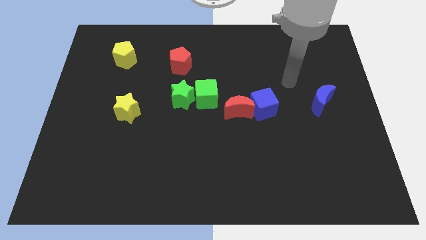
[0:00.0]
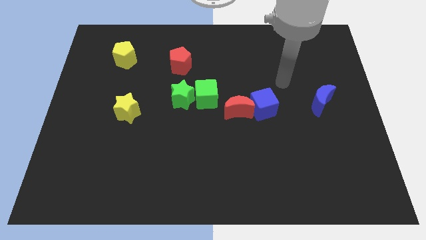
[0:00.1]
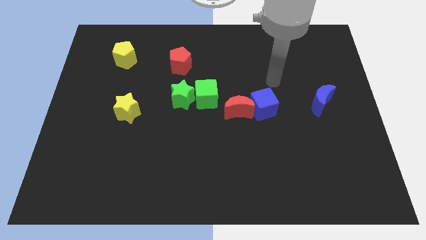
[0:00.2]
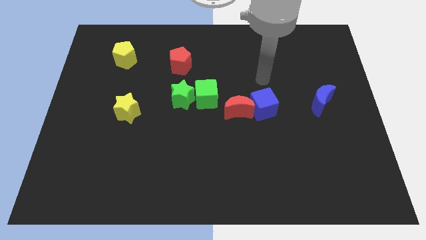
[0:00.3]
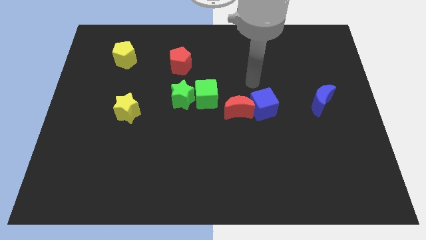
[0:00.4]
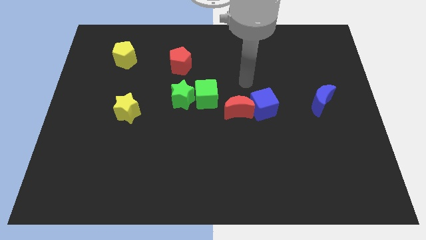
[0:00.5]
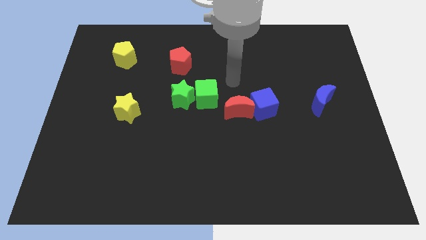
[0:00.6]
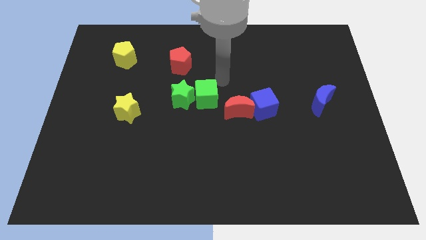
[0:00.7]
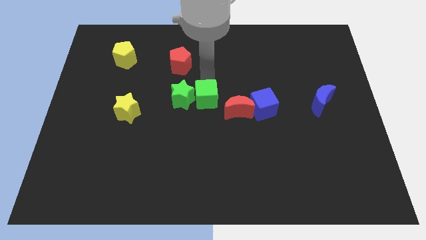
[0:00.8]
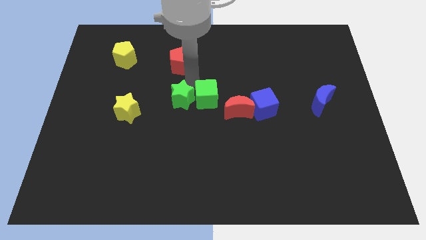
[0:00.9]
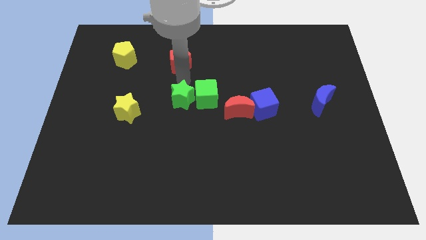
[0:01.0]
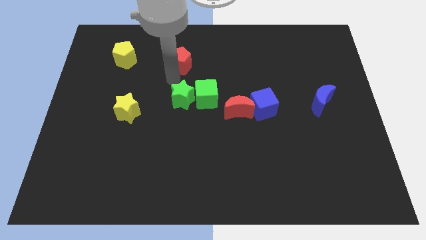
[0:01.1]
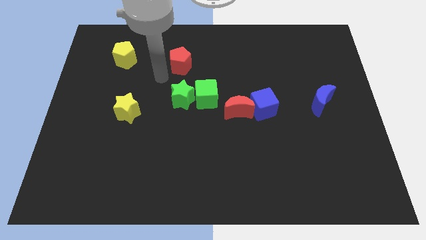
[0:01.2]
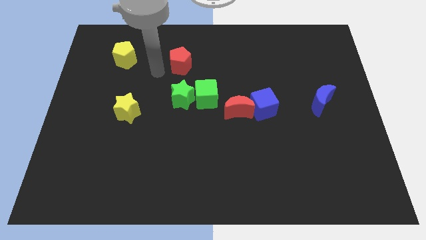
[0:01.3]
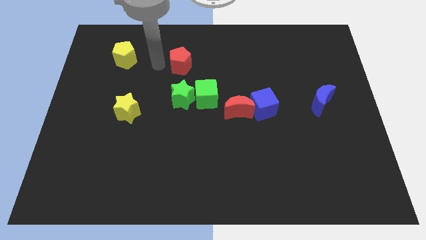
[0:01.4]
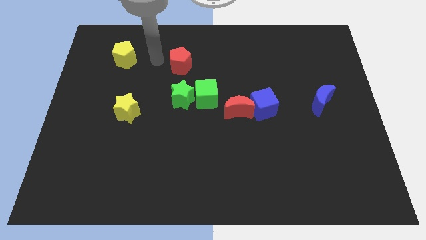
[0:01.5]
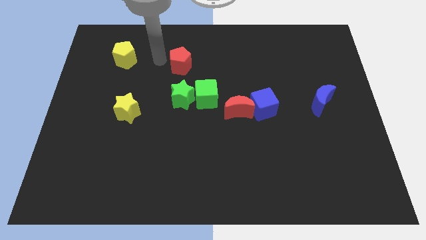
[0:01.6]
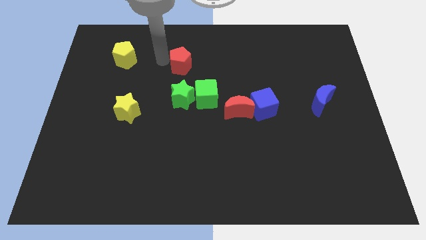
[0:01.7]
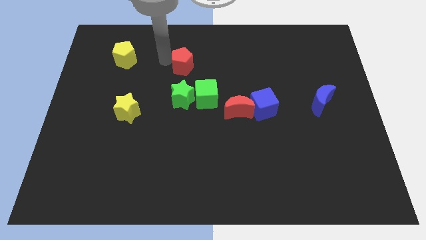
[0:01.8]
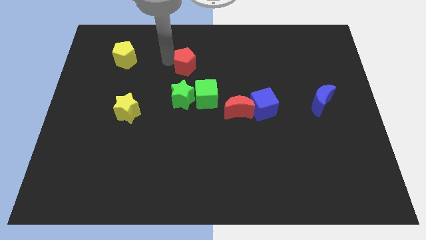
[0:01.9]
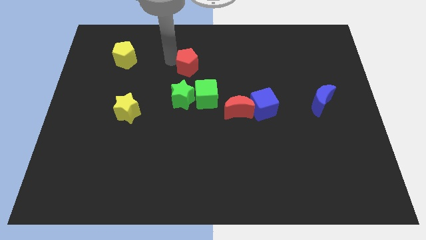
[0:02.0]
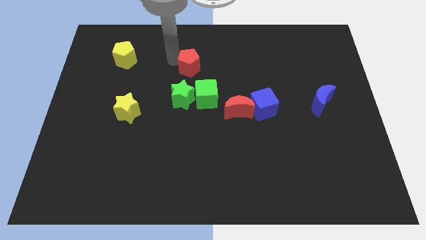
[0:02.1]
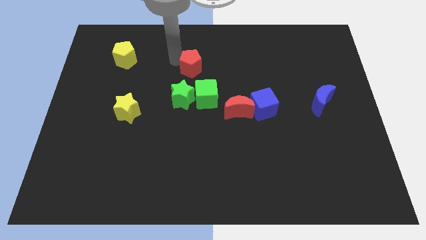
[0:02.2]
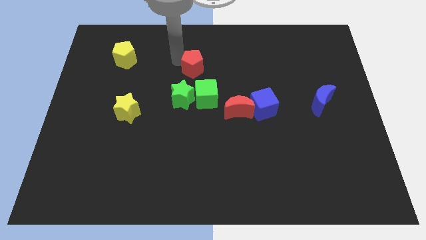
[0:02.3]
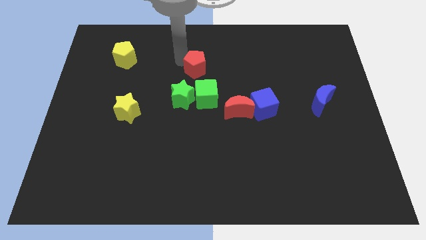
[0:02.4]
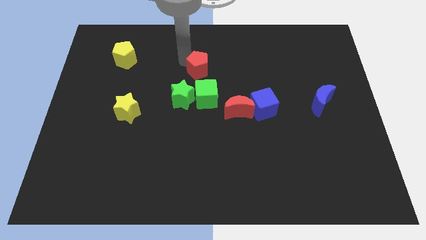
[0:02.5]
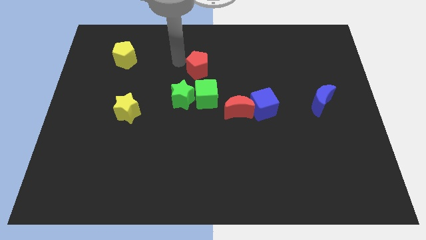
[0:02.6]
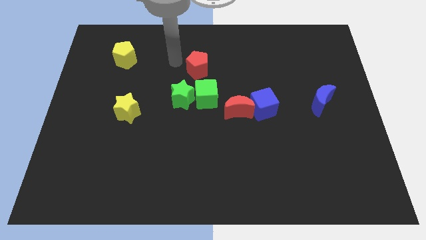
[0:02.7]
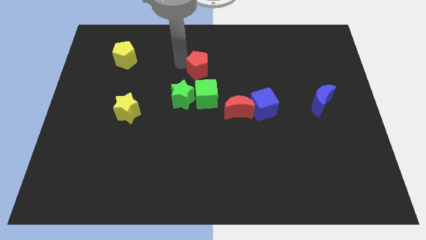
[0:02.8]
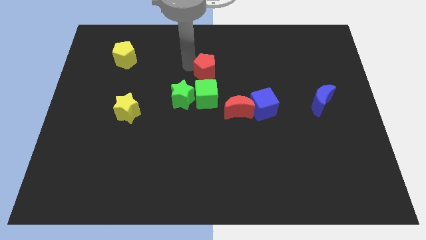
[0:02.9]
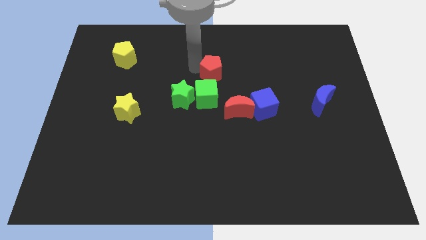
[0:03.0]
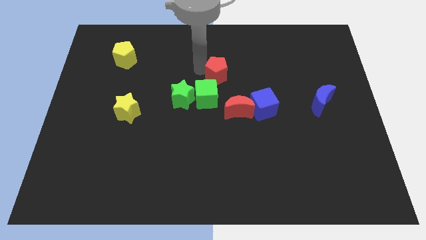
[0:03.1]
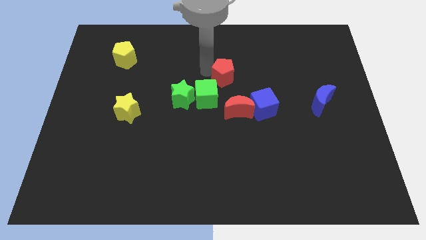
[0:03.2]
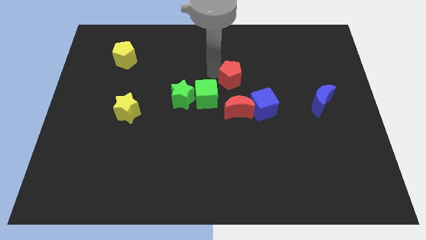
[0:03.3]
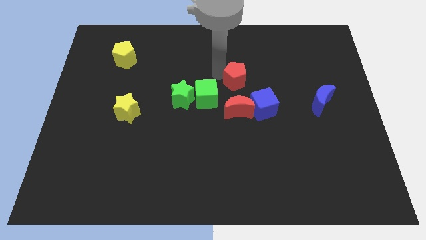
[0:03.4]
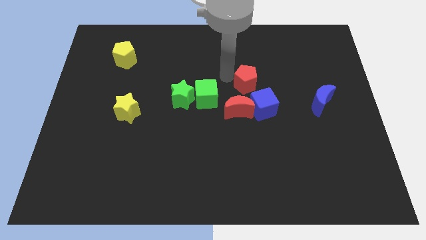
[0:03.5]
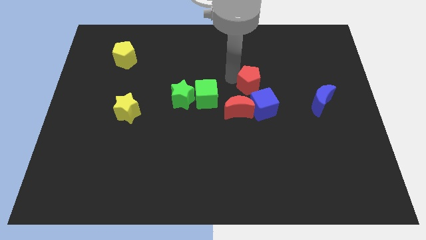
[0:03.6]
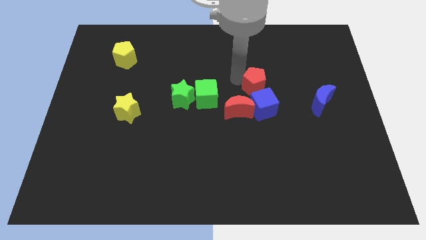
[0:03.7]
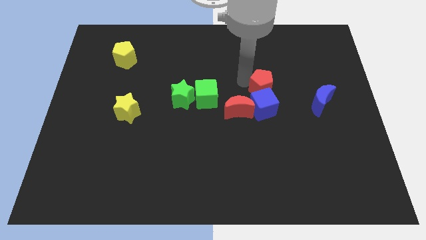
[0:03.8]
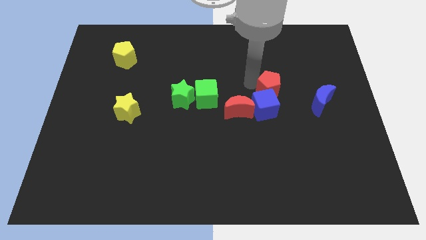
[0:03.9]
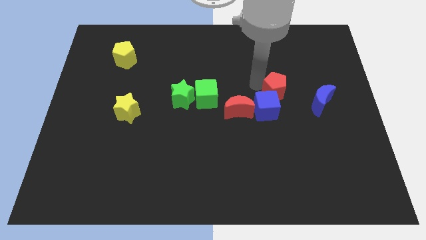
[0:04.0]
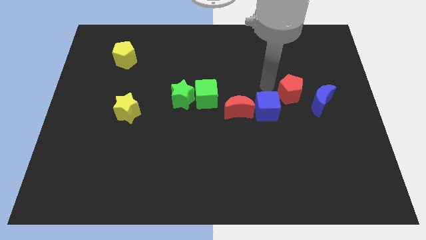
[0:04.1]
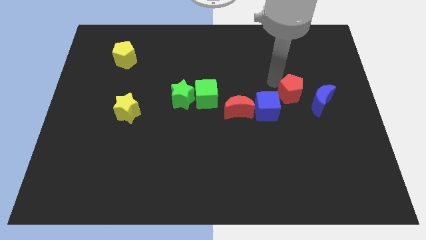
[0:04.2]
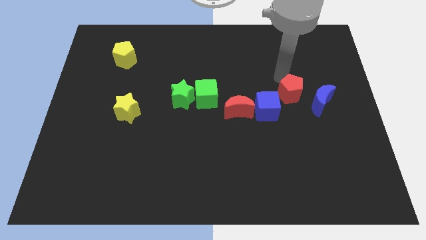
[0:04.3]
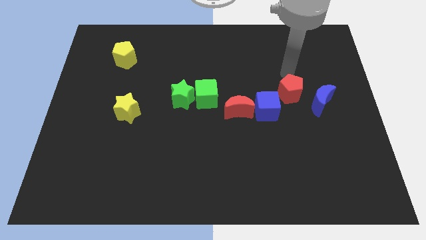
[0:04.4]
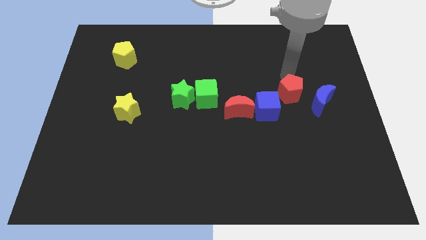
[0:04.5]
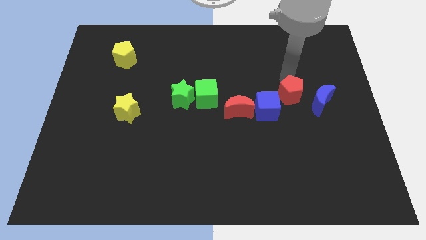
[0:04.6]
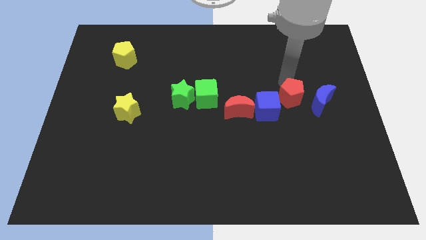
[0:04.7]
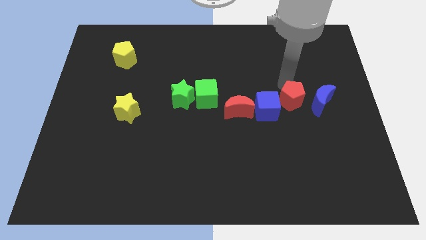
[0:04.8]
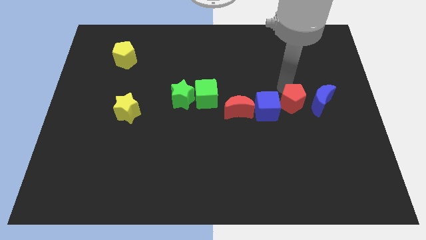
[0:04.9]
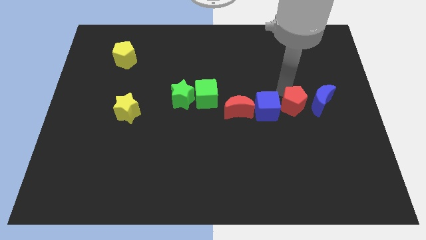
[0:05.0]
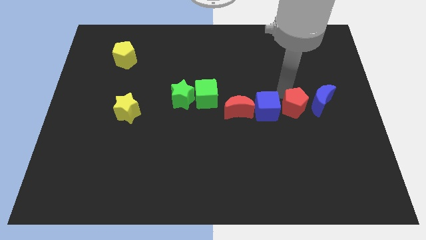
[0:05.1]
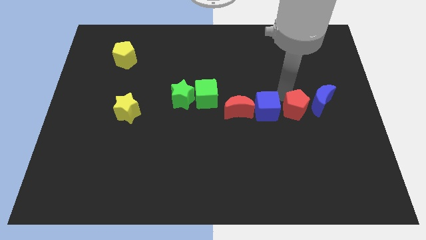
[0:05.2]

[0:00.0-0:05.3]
slide the red pentagon to the bottom right of the blue cube

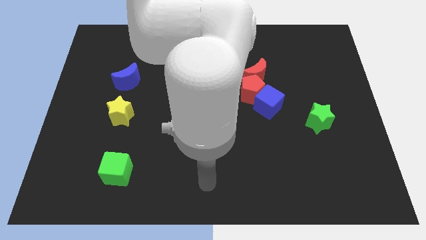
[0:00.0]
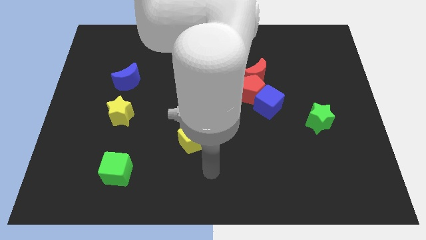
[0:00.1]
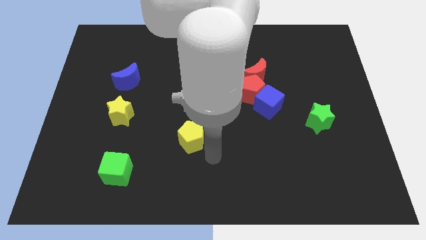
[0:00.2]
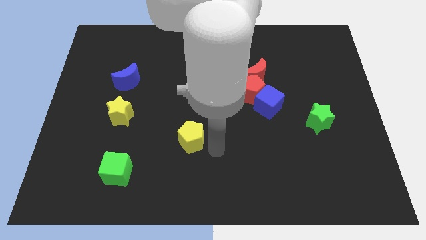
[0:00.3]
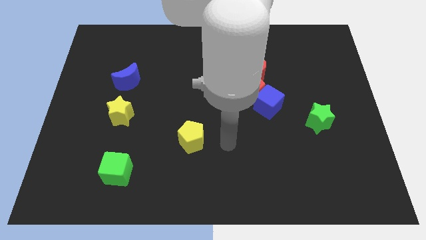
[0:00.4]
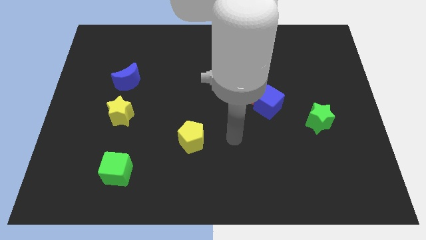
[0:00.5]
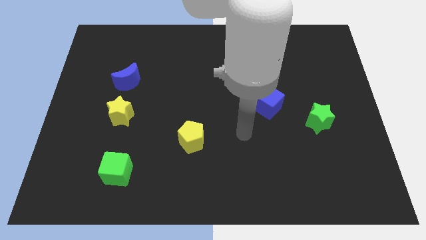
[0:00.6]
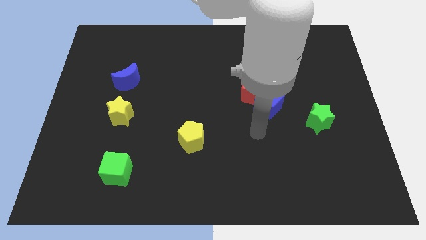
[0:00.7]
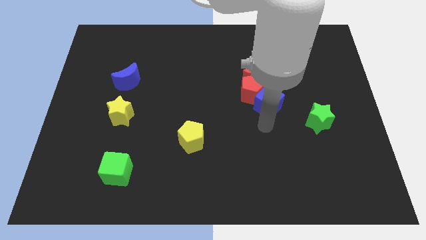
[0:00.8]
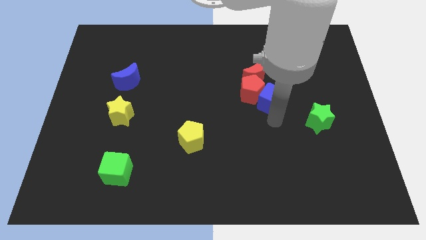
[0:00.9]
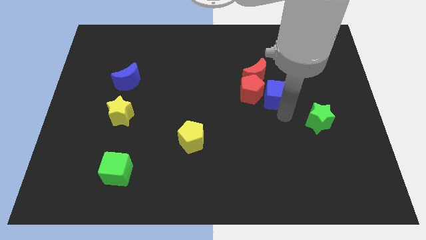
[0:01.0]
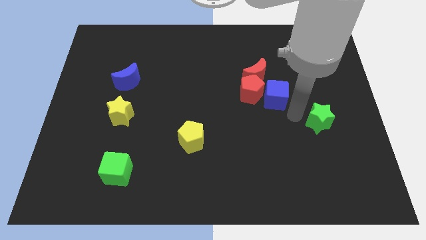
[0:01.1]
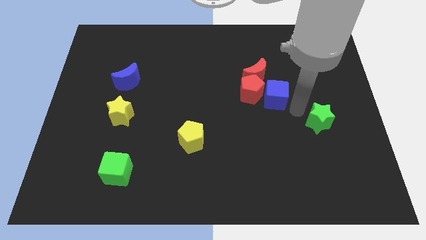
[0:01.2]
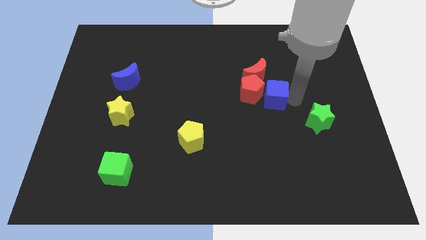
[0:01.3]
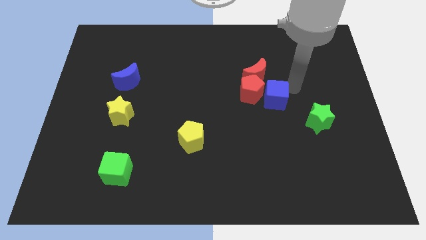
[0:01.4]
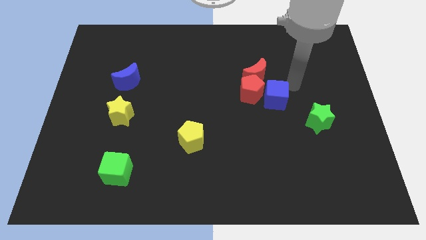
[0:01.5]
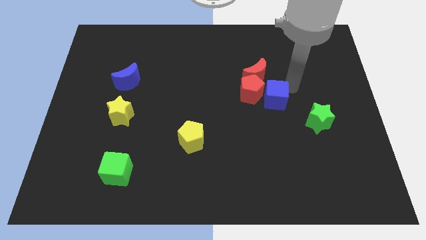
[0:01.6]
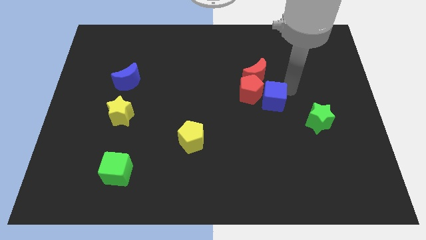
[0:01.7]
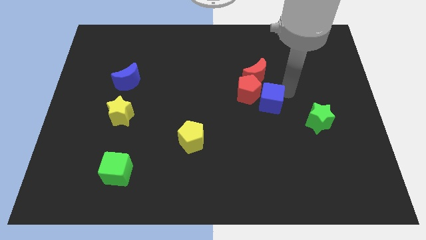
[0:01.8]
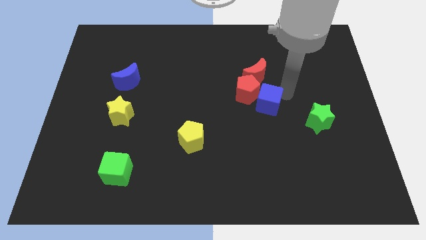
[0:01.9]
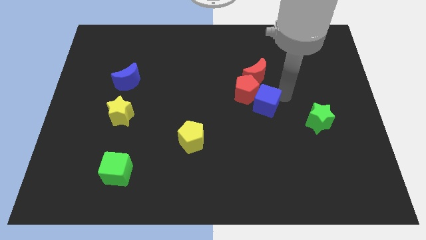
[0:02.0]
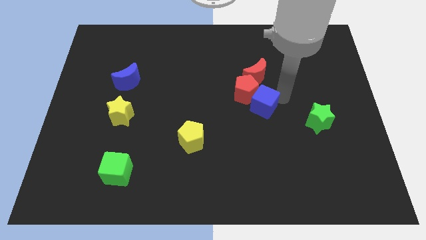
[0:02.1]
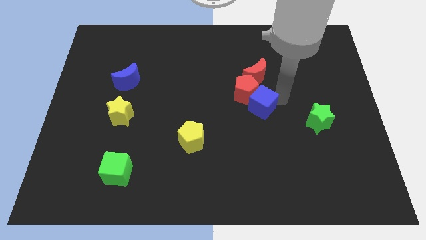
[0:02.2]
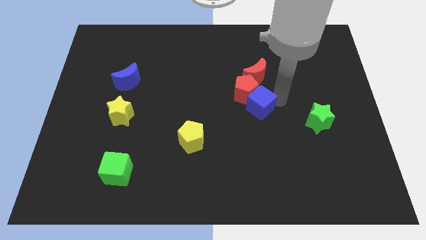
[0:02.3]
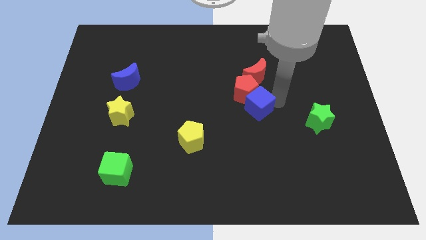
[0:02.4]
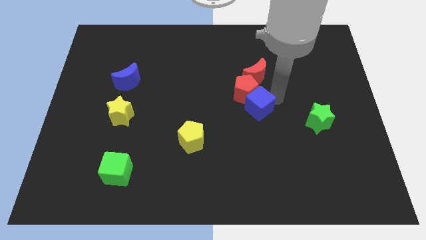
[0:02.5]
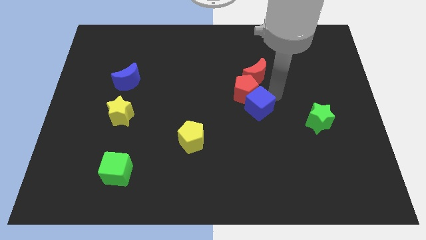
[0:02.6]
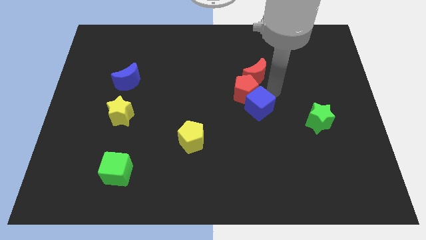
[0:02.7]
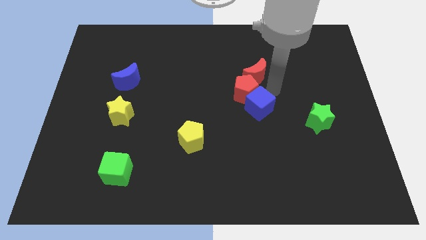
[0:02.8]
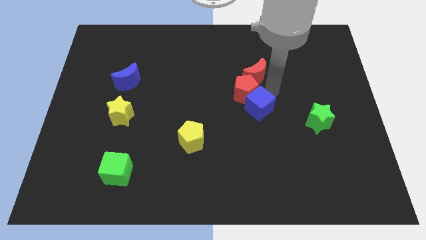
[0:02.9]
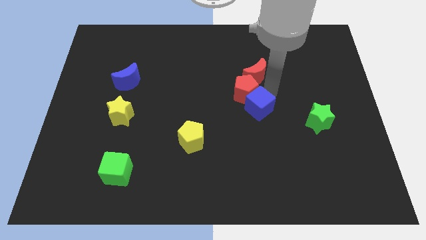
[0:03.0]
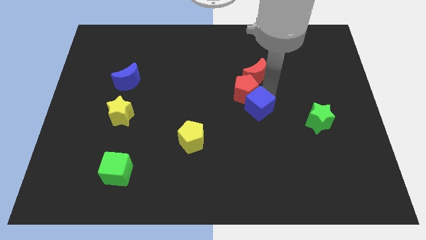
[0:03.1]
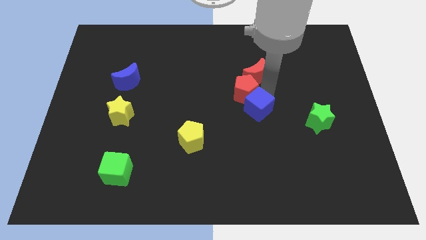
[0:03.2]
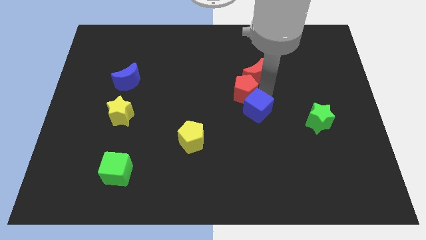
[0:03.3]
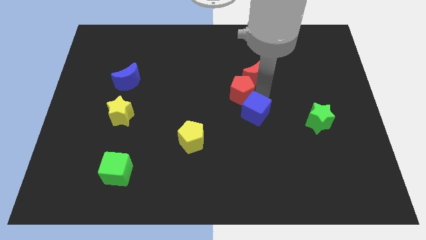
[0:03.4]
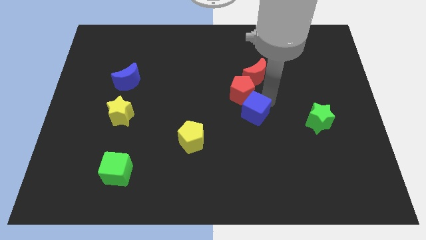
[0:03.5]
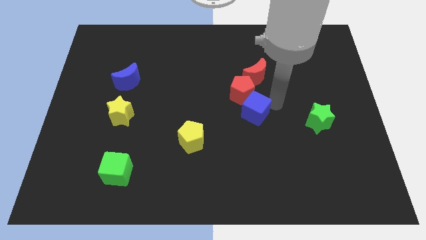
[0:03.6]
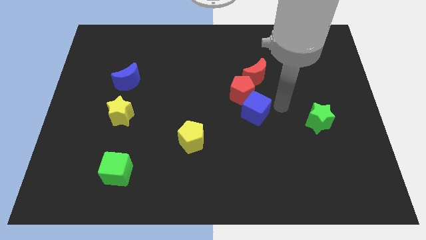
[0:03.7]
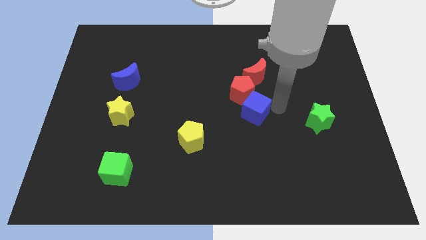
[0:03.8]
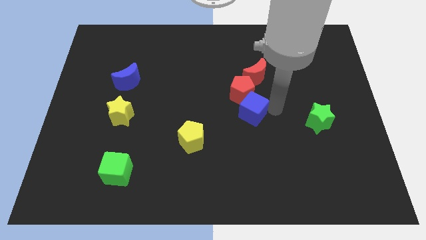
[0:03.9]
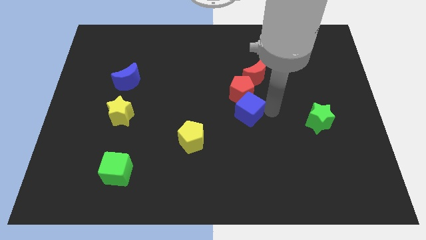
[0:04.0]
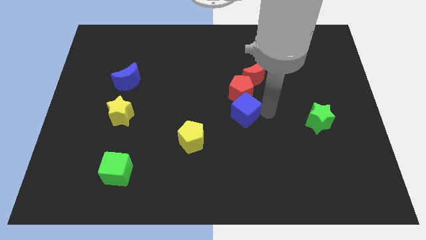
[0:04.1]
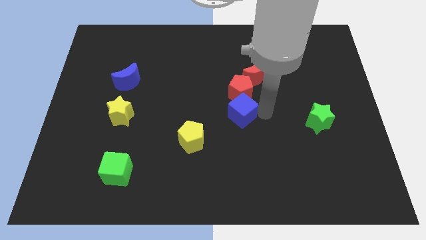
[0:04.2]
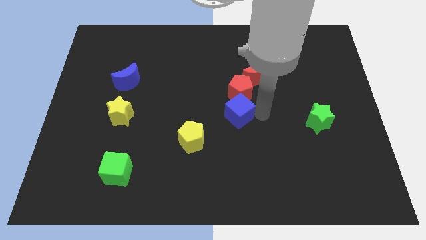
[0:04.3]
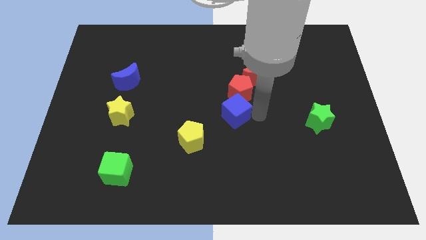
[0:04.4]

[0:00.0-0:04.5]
push the blue cube to the top right of the yellow pentagon
